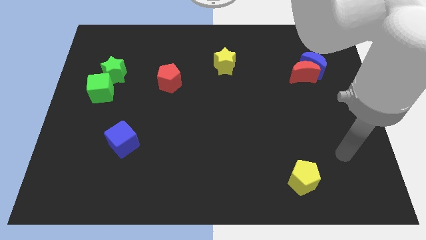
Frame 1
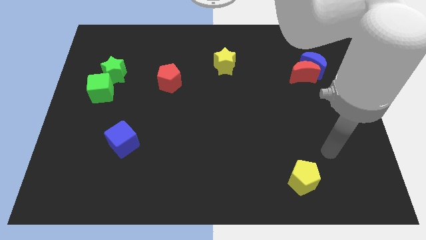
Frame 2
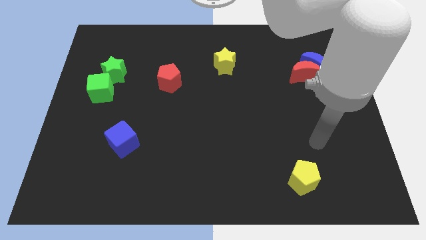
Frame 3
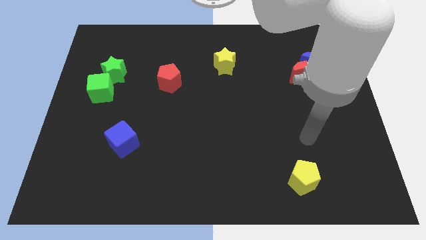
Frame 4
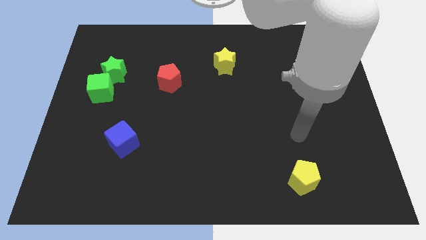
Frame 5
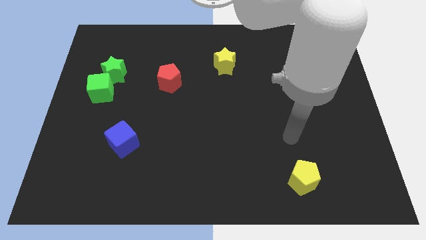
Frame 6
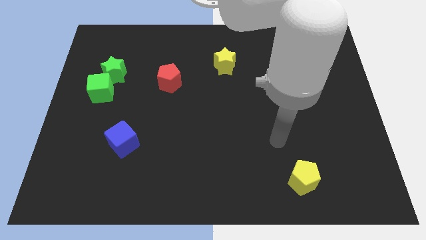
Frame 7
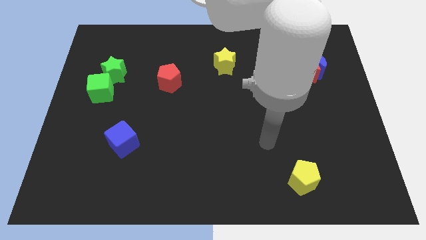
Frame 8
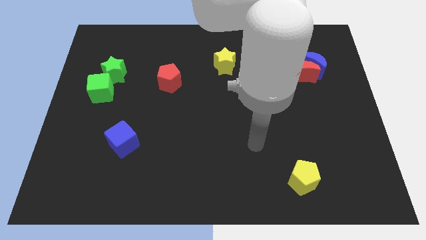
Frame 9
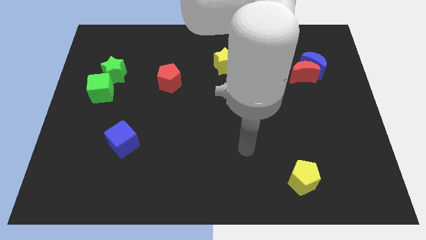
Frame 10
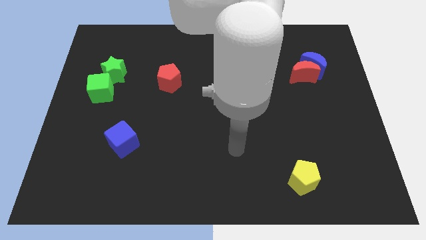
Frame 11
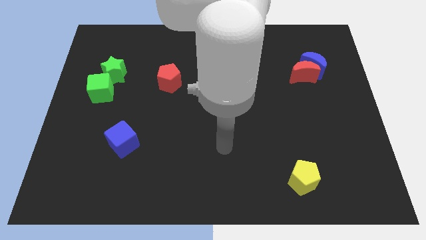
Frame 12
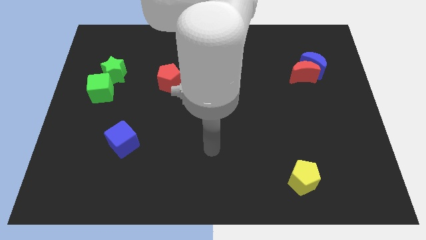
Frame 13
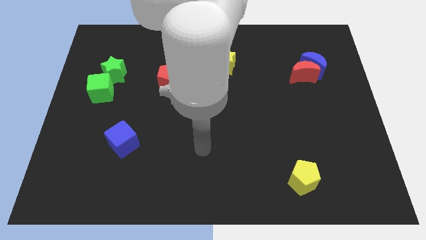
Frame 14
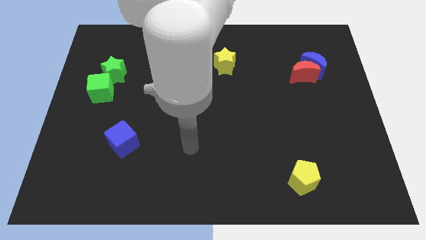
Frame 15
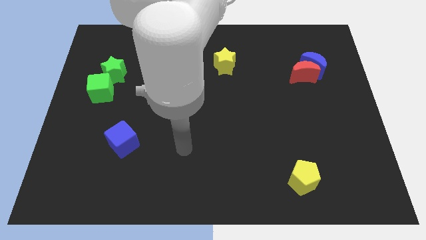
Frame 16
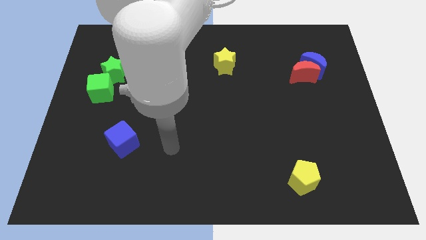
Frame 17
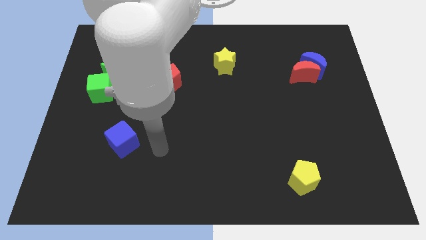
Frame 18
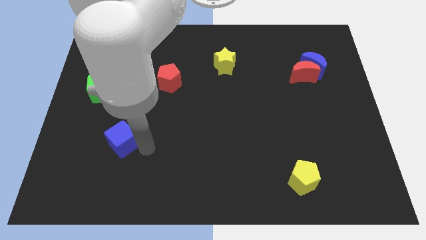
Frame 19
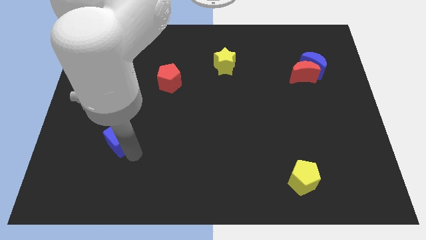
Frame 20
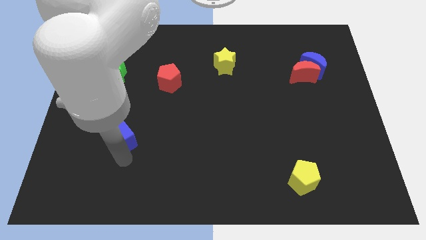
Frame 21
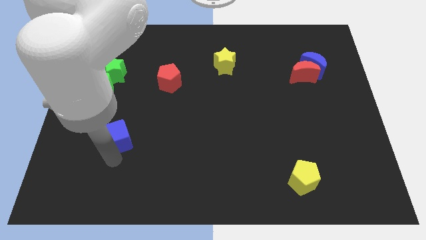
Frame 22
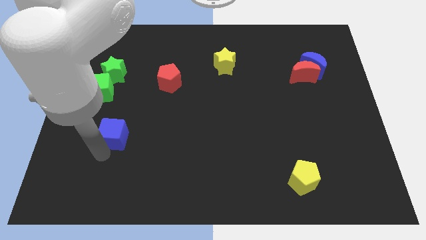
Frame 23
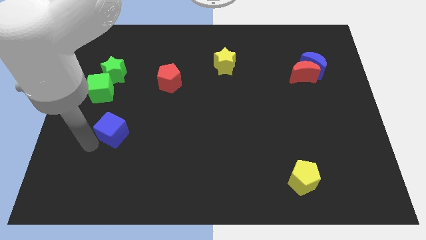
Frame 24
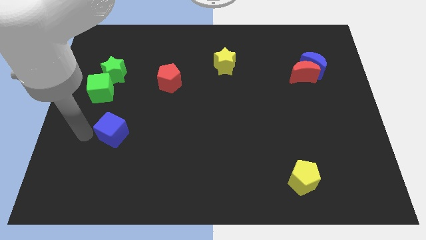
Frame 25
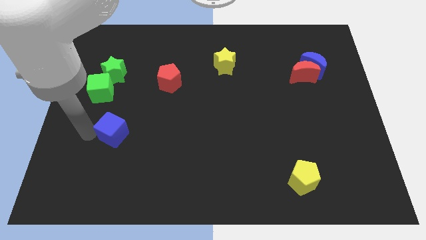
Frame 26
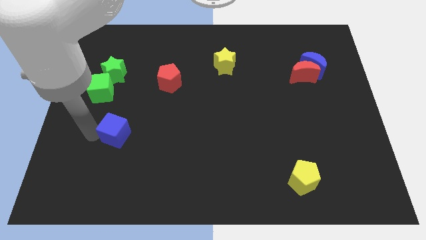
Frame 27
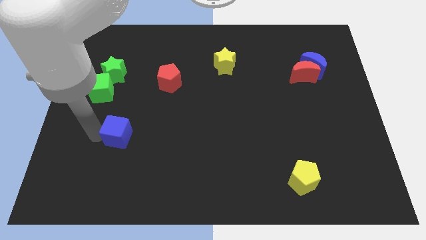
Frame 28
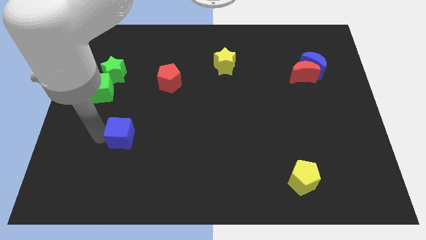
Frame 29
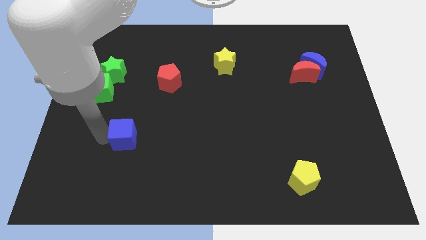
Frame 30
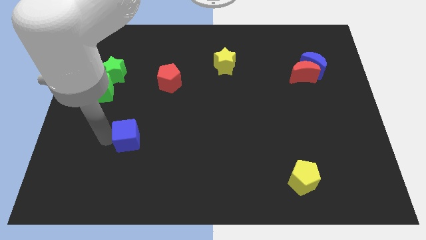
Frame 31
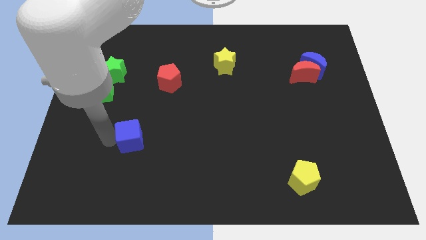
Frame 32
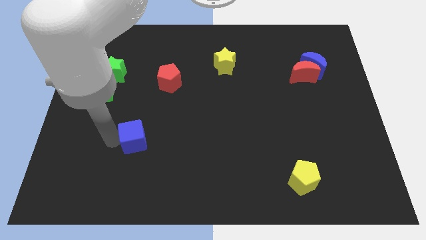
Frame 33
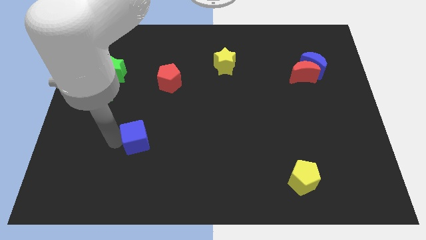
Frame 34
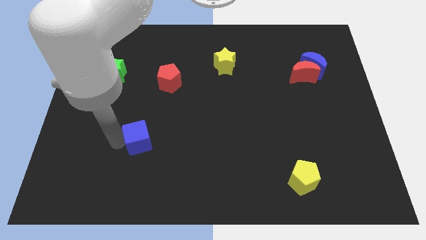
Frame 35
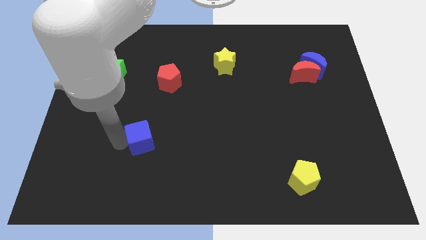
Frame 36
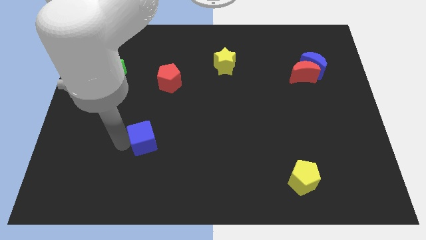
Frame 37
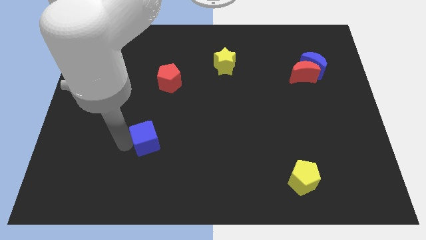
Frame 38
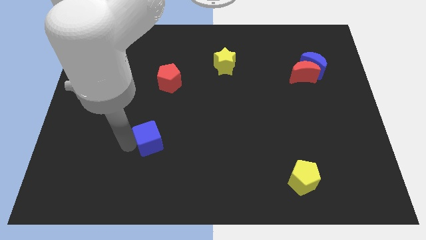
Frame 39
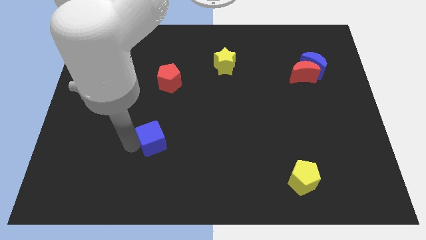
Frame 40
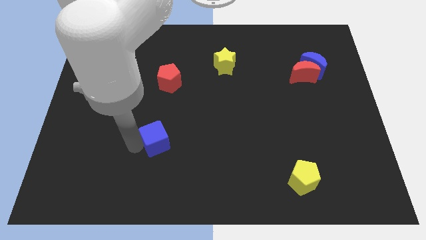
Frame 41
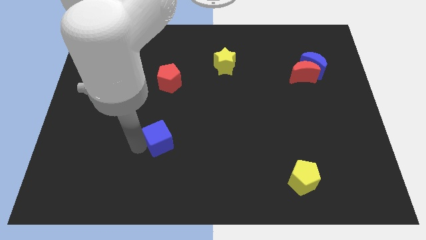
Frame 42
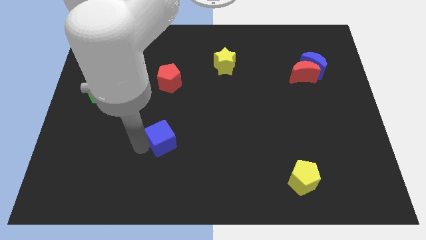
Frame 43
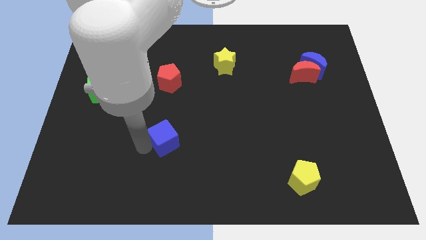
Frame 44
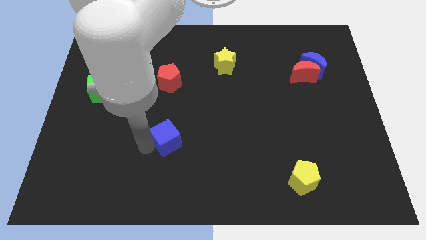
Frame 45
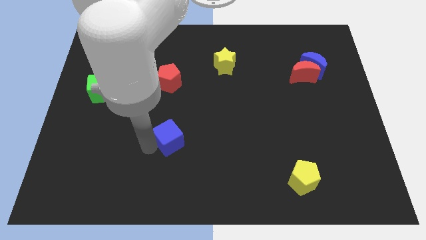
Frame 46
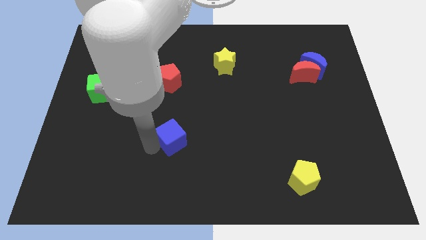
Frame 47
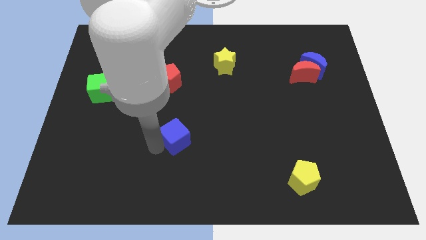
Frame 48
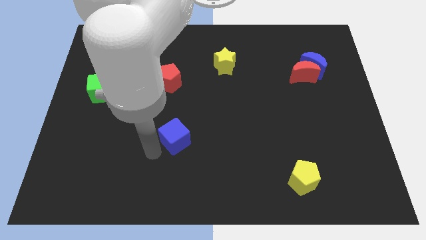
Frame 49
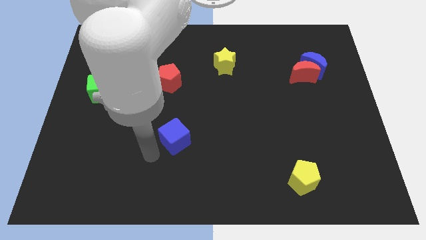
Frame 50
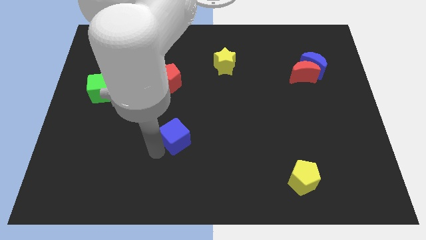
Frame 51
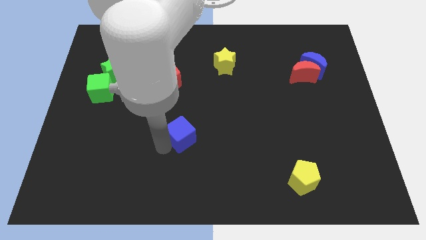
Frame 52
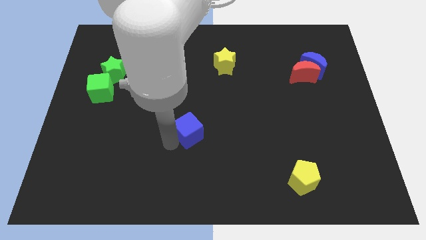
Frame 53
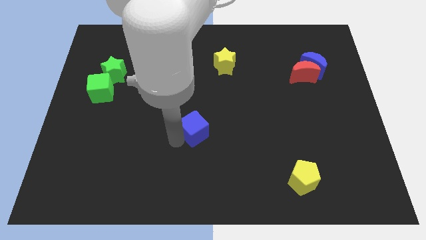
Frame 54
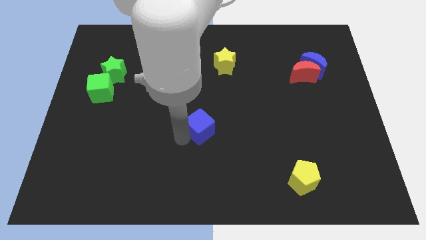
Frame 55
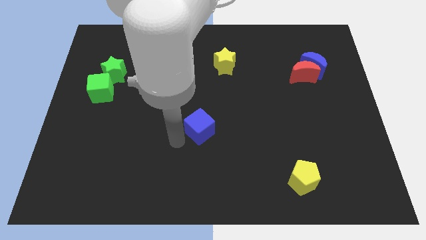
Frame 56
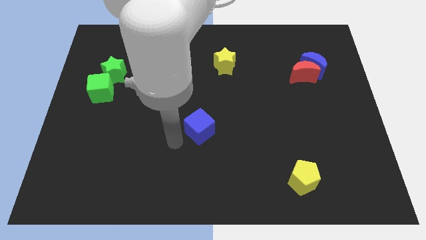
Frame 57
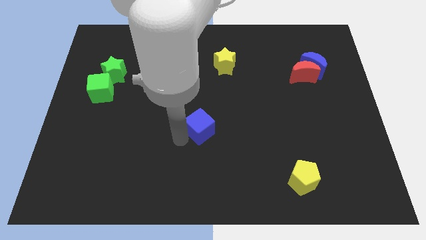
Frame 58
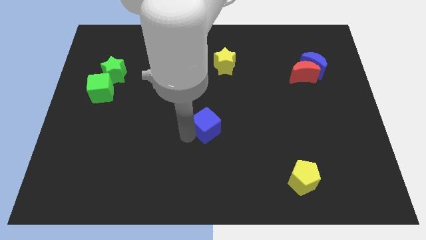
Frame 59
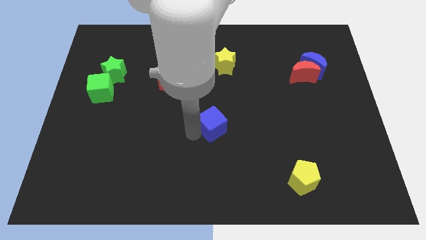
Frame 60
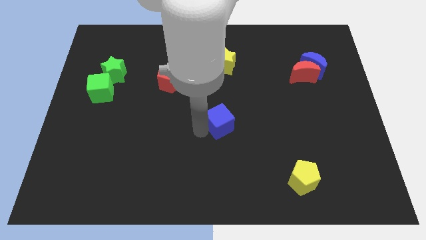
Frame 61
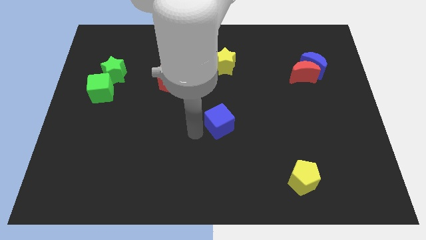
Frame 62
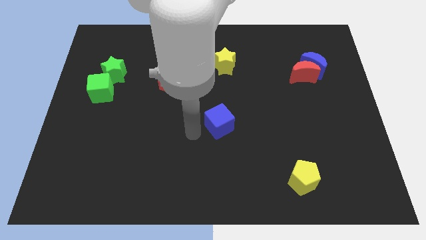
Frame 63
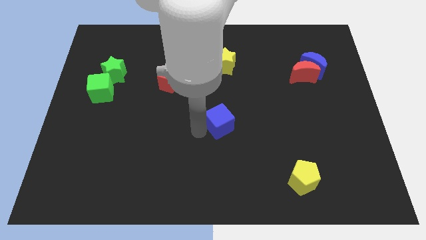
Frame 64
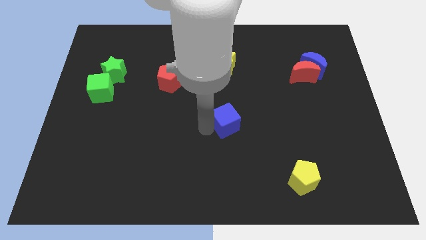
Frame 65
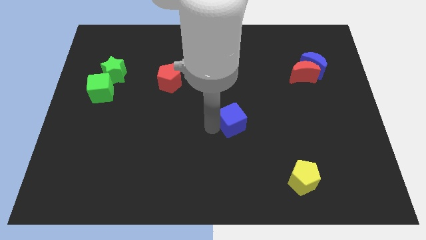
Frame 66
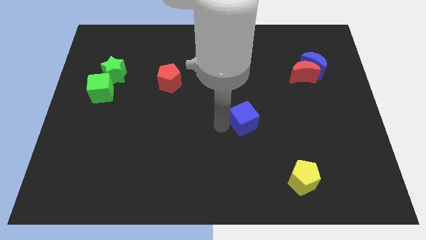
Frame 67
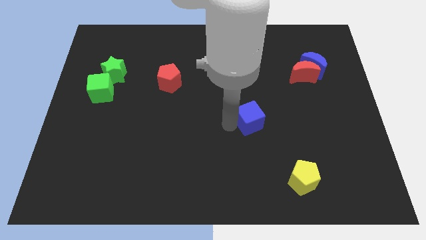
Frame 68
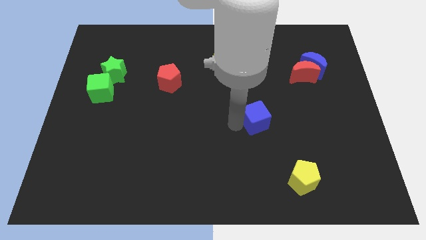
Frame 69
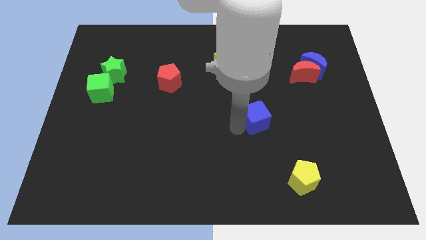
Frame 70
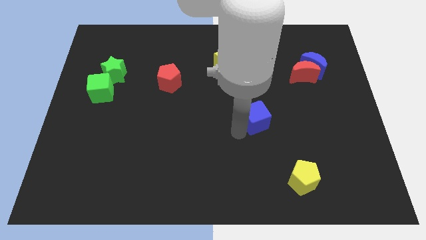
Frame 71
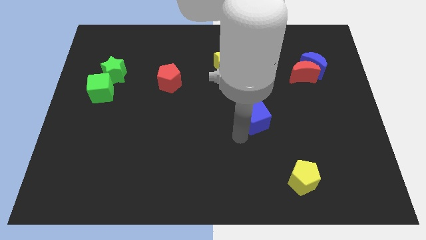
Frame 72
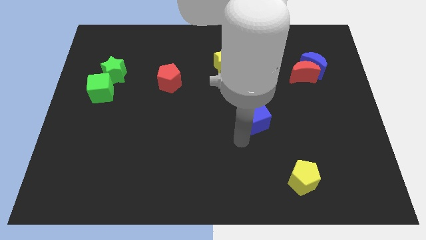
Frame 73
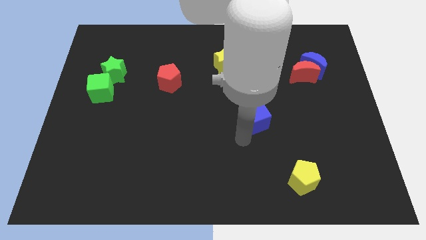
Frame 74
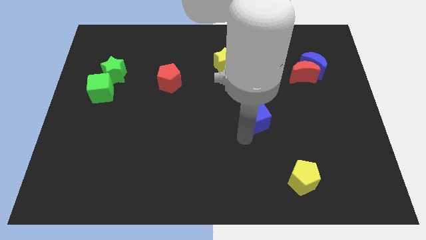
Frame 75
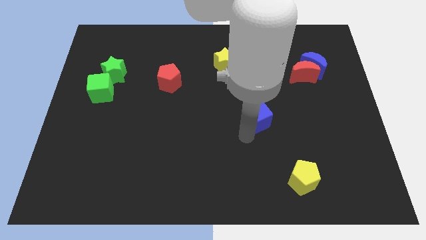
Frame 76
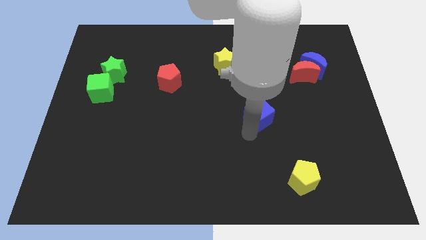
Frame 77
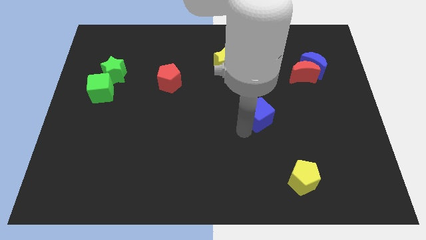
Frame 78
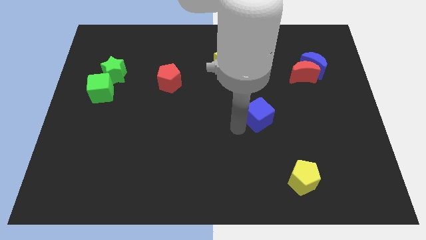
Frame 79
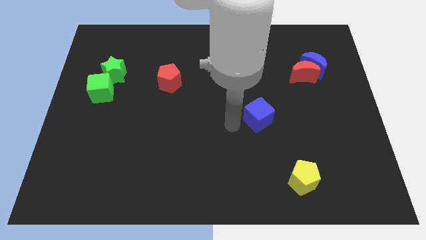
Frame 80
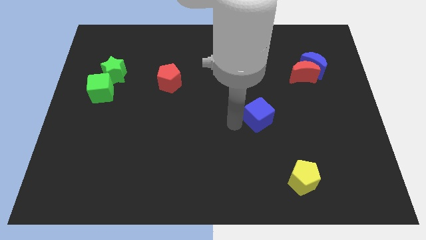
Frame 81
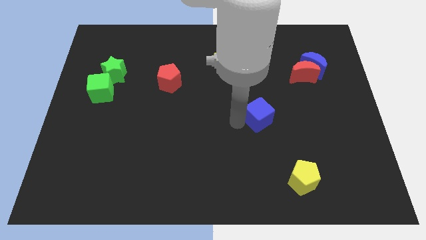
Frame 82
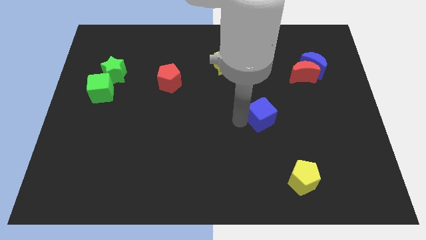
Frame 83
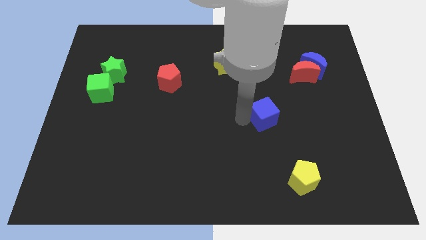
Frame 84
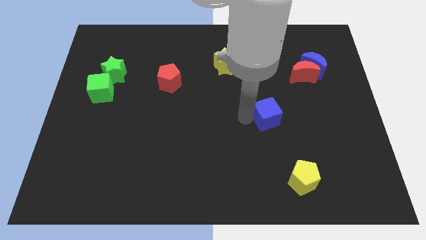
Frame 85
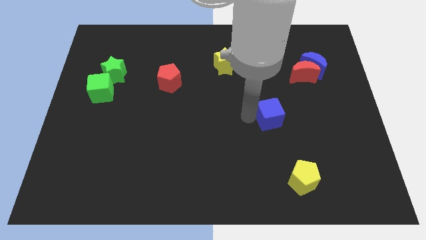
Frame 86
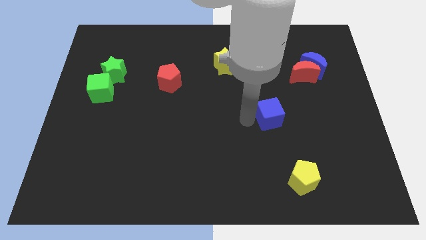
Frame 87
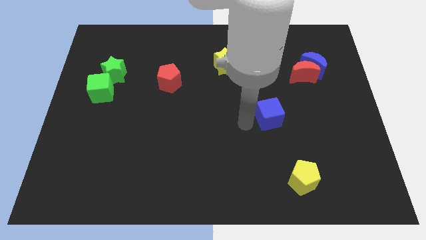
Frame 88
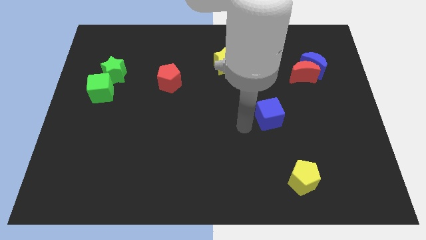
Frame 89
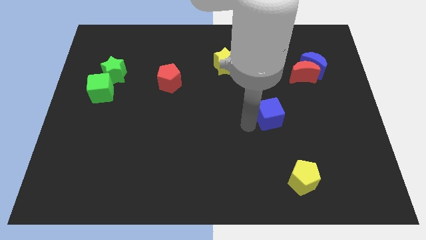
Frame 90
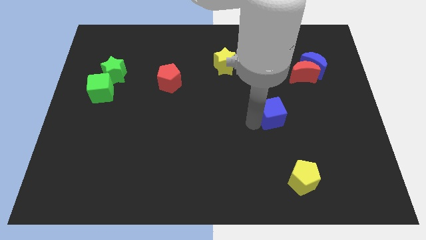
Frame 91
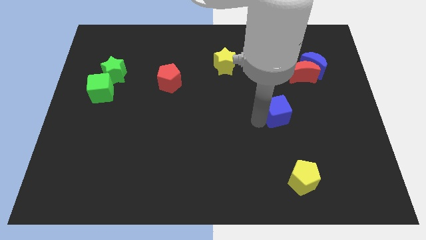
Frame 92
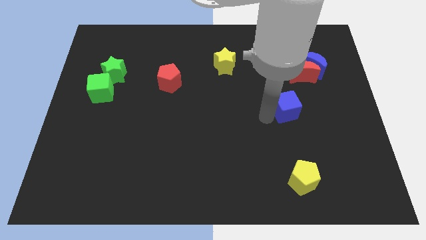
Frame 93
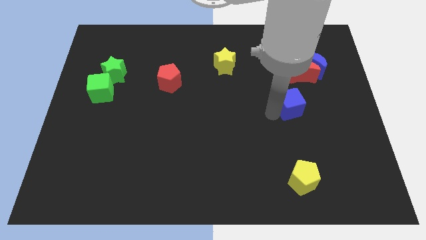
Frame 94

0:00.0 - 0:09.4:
put the blue cube to the bottom of the red moon
